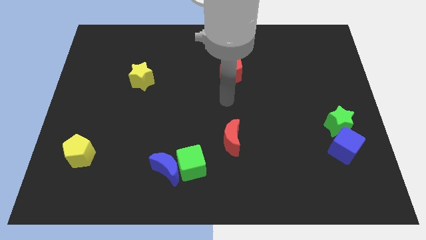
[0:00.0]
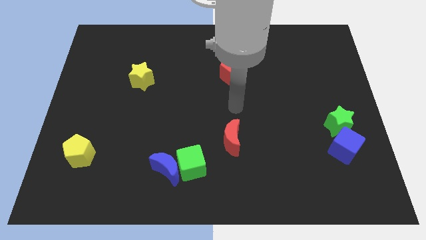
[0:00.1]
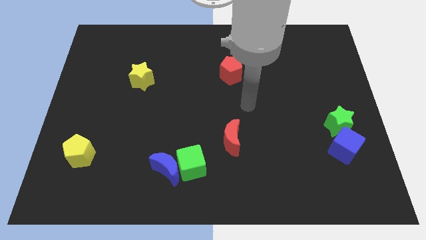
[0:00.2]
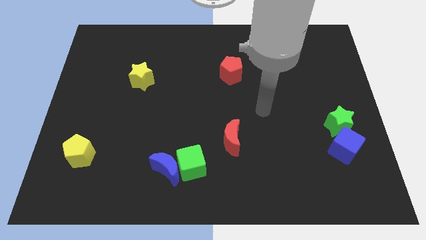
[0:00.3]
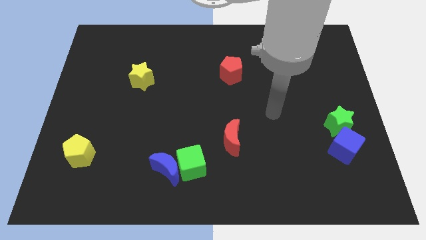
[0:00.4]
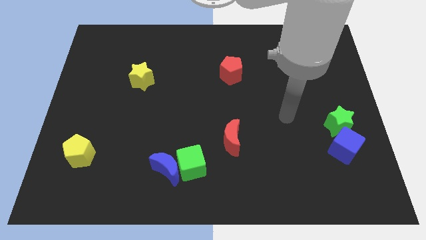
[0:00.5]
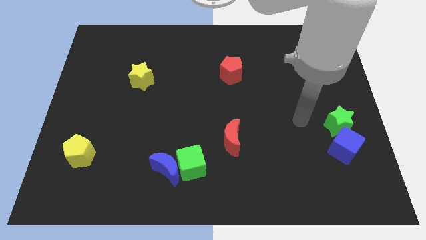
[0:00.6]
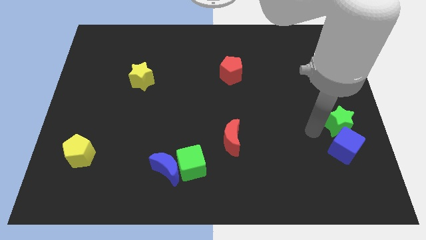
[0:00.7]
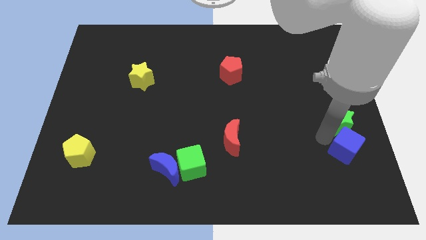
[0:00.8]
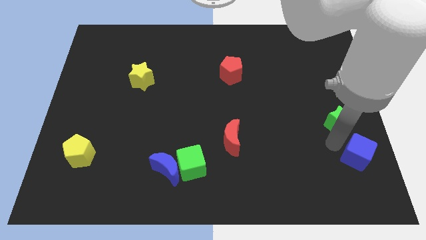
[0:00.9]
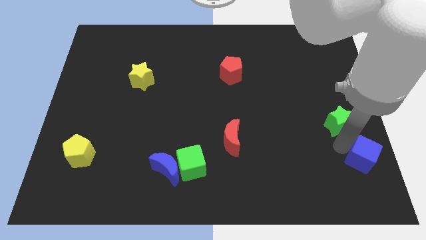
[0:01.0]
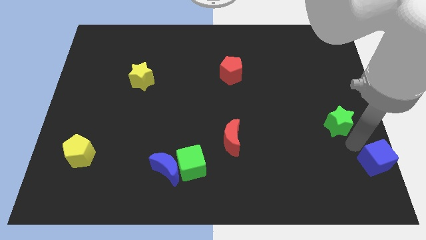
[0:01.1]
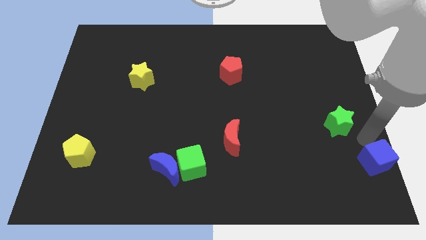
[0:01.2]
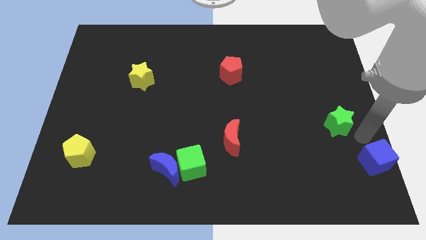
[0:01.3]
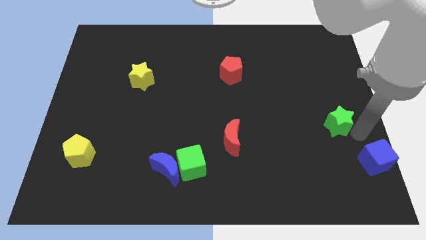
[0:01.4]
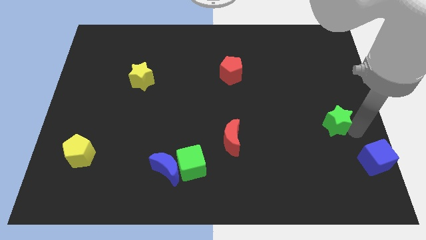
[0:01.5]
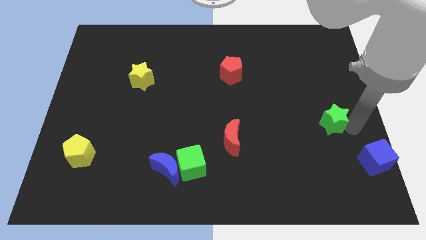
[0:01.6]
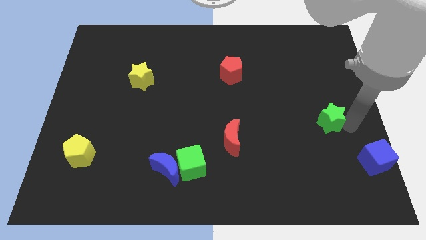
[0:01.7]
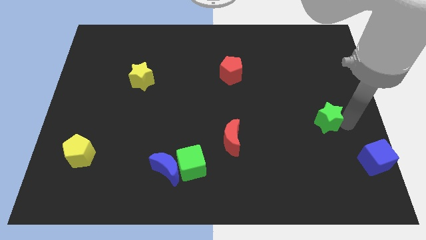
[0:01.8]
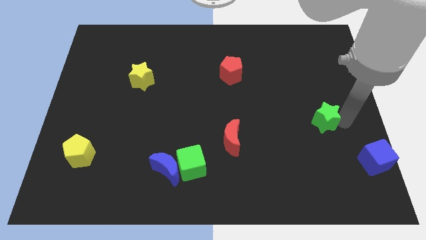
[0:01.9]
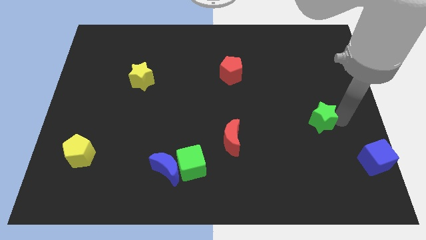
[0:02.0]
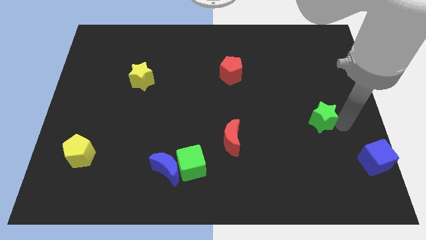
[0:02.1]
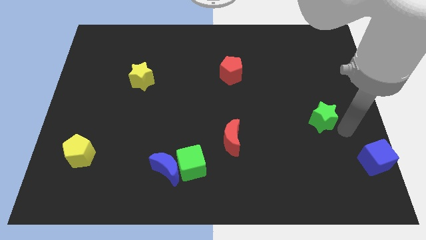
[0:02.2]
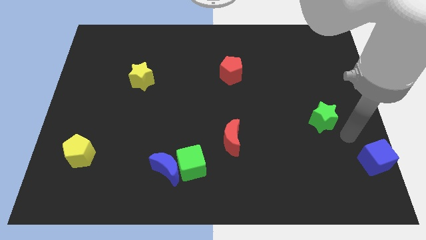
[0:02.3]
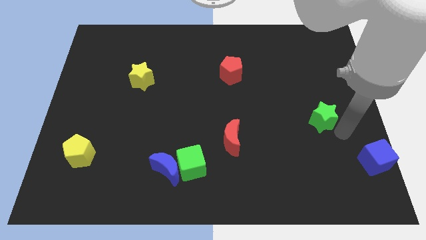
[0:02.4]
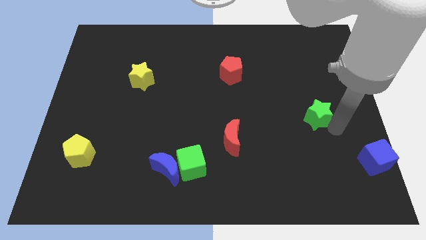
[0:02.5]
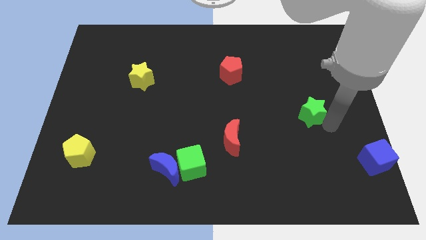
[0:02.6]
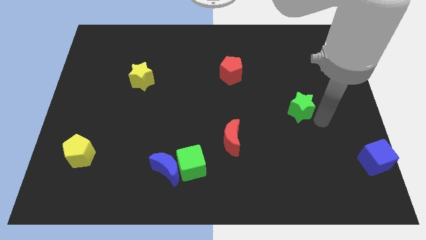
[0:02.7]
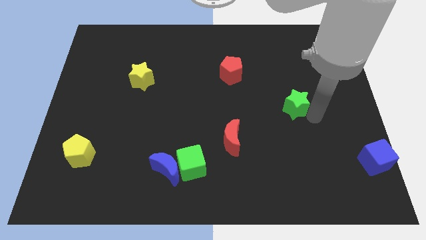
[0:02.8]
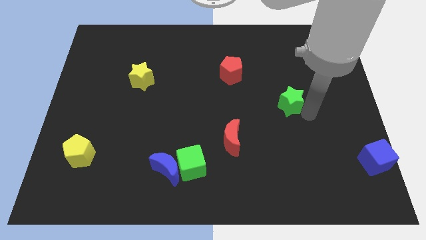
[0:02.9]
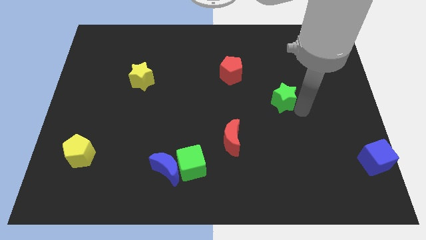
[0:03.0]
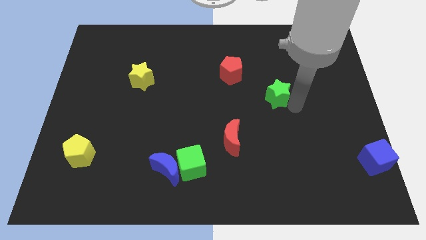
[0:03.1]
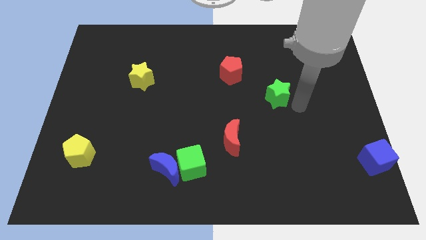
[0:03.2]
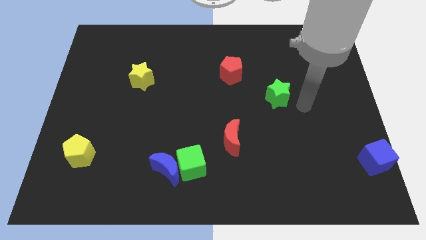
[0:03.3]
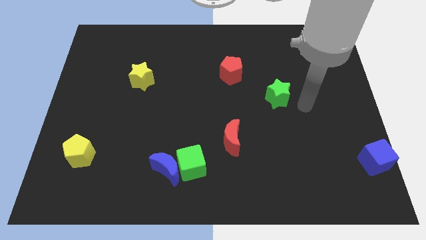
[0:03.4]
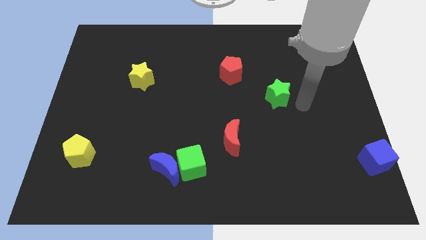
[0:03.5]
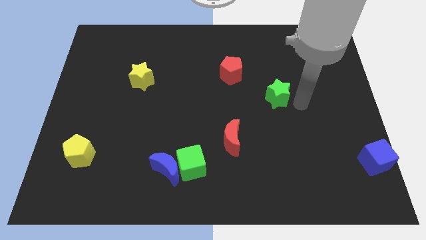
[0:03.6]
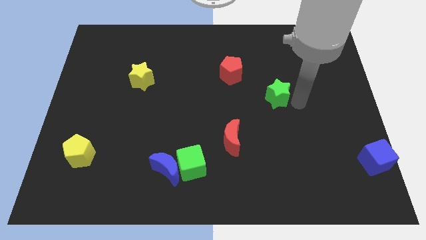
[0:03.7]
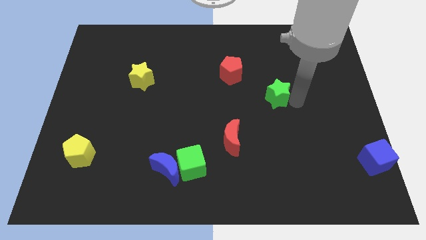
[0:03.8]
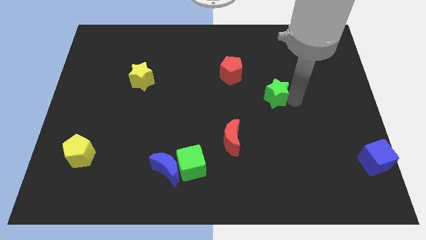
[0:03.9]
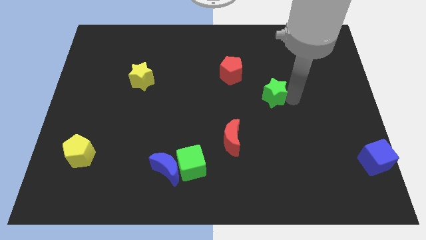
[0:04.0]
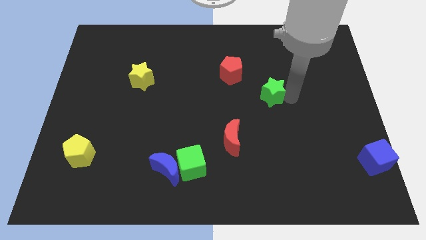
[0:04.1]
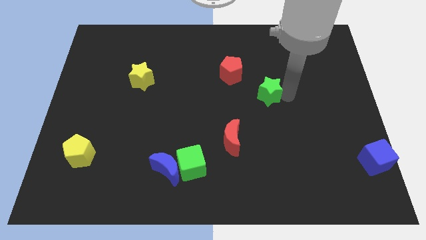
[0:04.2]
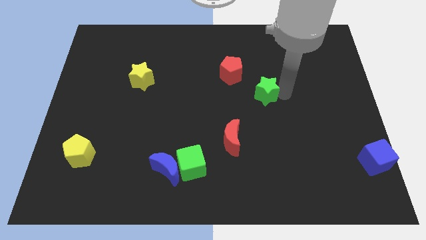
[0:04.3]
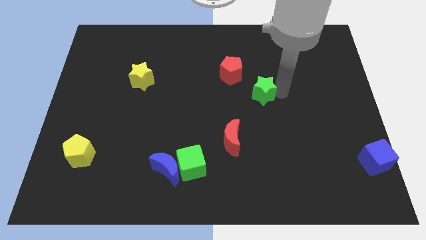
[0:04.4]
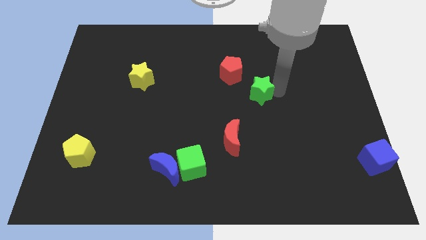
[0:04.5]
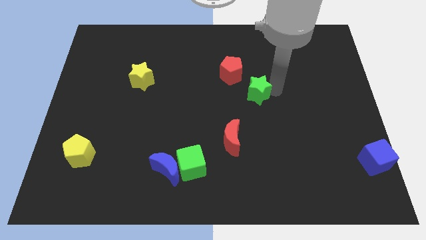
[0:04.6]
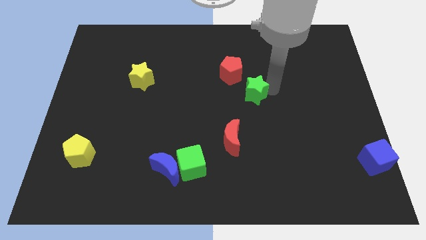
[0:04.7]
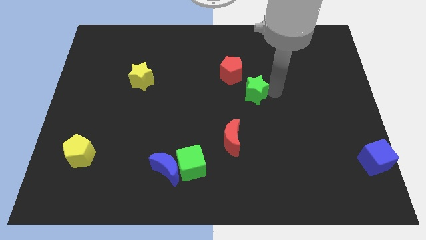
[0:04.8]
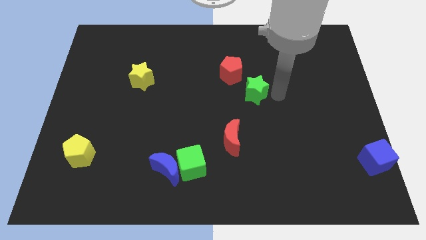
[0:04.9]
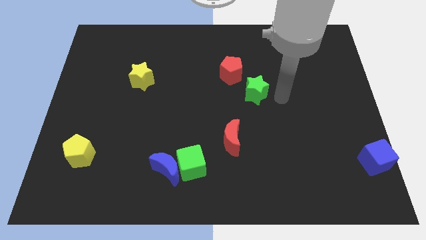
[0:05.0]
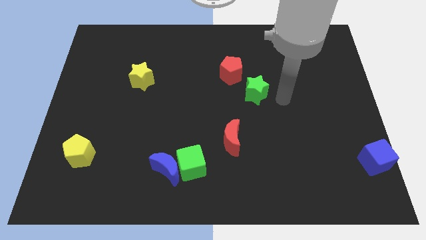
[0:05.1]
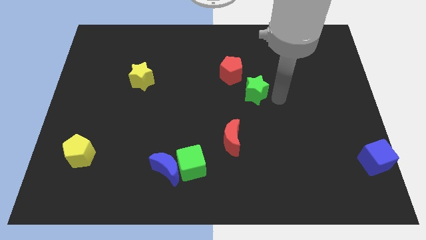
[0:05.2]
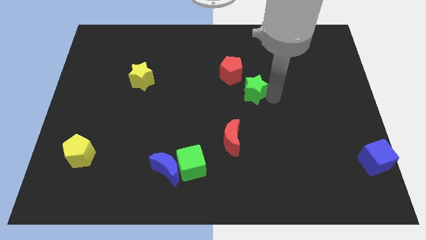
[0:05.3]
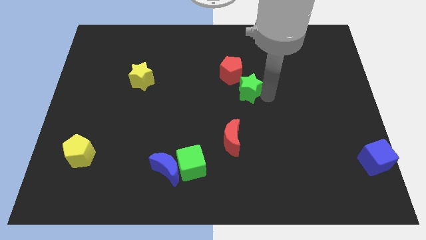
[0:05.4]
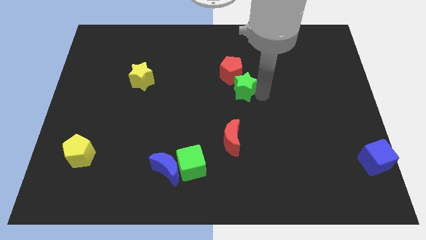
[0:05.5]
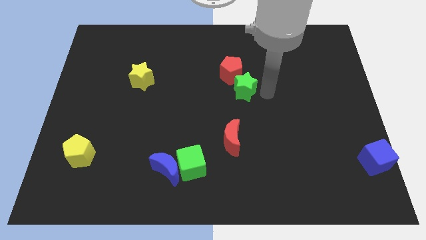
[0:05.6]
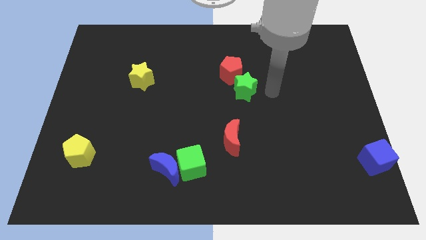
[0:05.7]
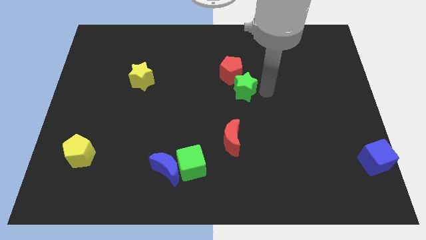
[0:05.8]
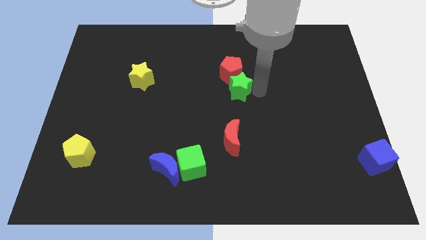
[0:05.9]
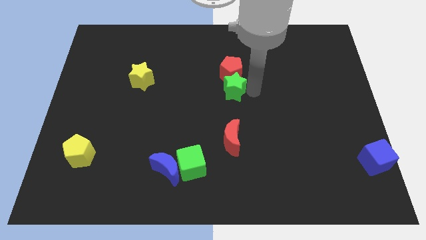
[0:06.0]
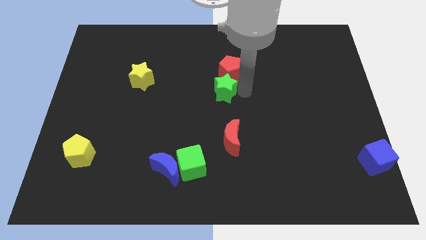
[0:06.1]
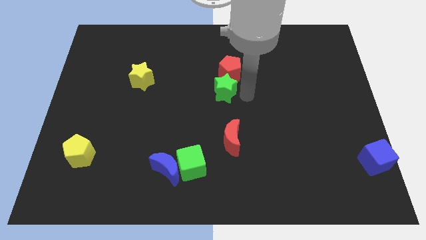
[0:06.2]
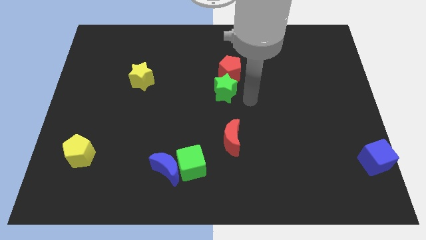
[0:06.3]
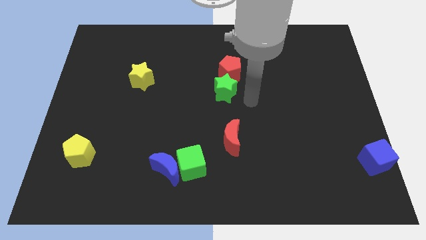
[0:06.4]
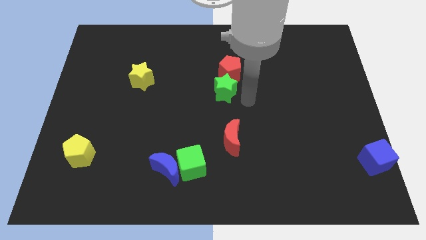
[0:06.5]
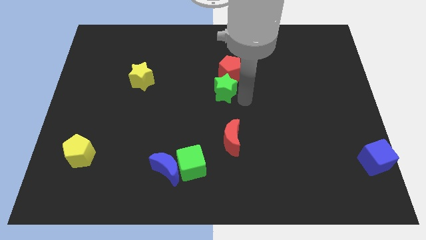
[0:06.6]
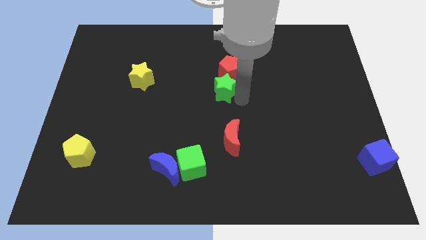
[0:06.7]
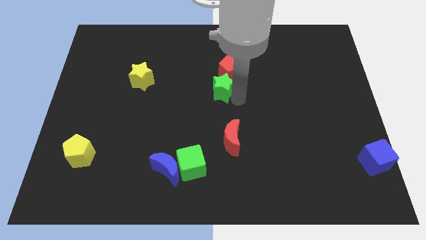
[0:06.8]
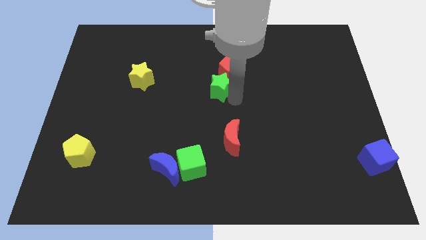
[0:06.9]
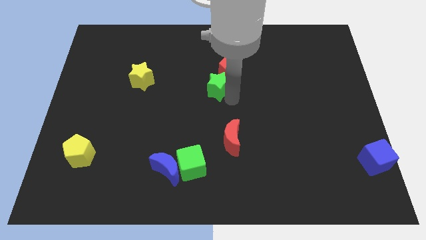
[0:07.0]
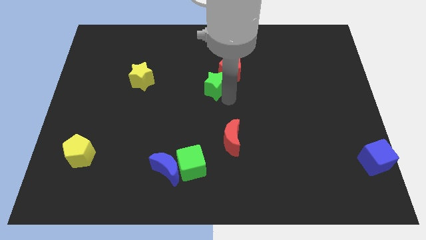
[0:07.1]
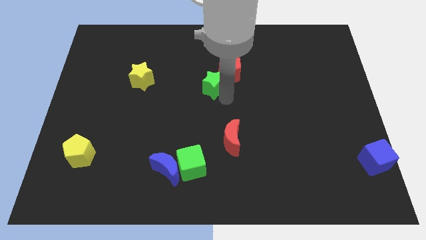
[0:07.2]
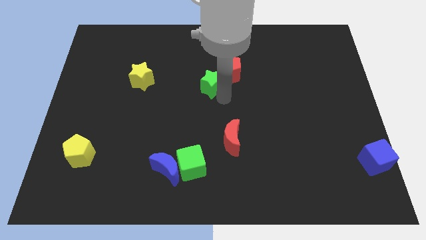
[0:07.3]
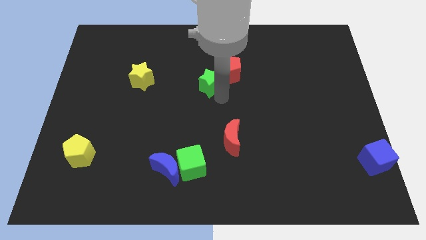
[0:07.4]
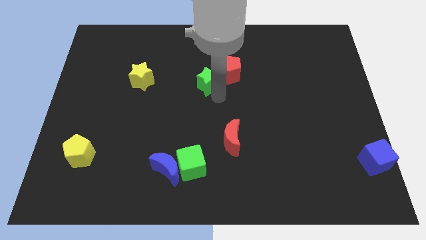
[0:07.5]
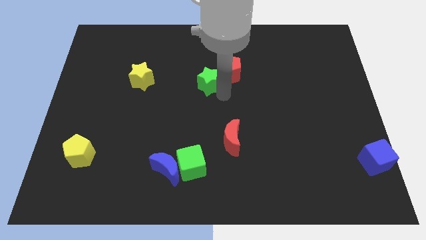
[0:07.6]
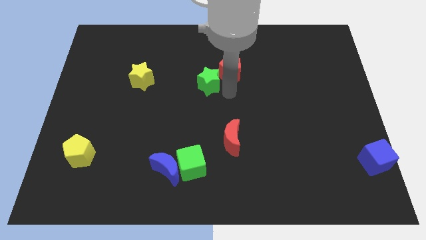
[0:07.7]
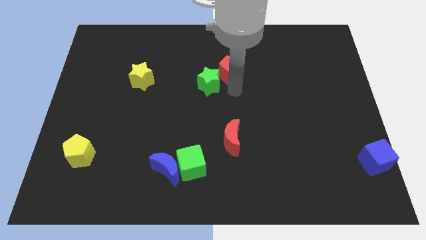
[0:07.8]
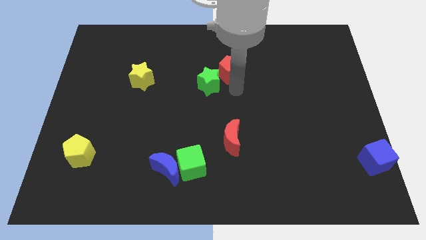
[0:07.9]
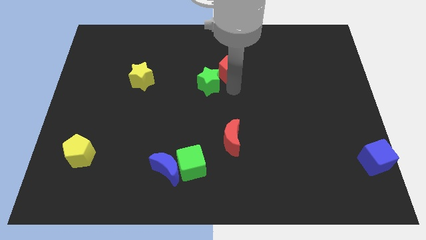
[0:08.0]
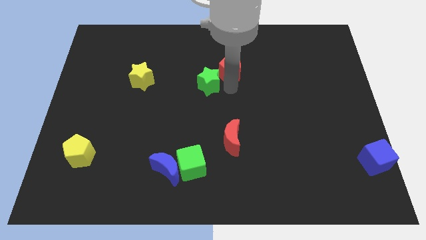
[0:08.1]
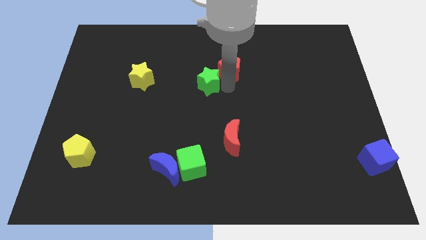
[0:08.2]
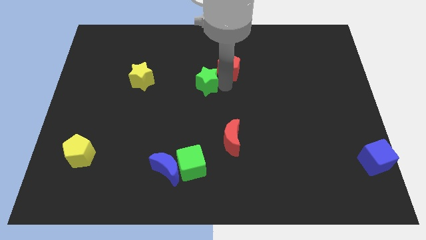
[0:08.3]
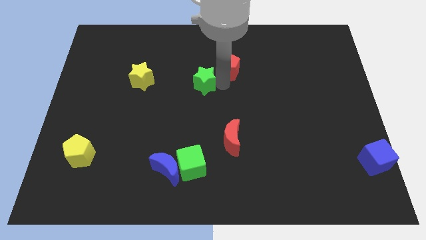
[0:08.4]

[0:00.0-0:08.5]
move the green star just right of the yellow star
